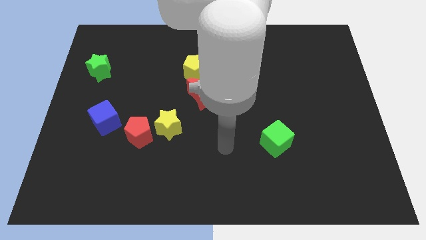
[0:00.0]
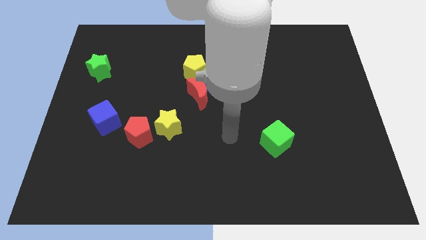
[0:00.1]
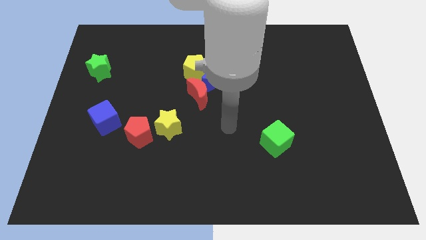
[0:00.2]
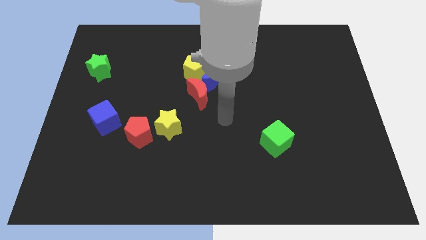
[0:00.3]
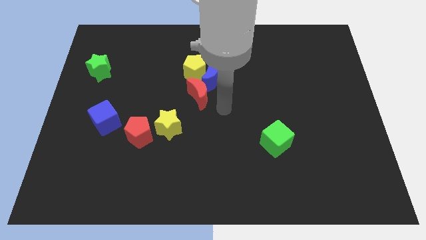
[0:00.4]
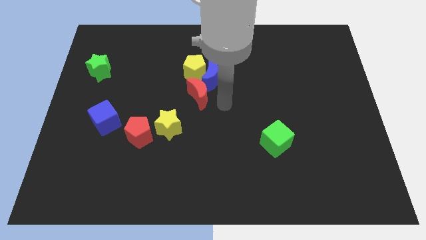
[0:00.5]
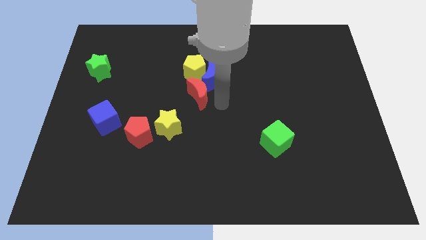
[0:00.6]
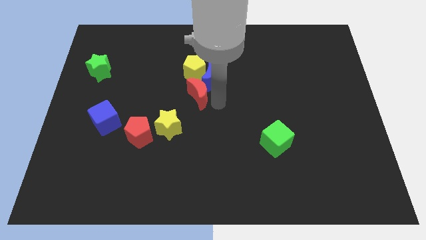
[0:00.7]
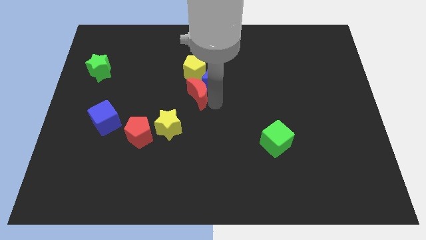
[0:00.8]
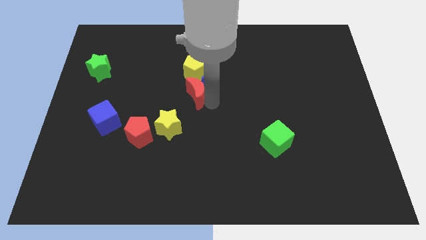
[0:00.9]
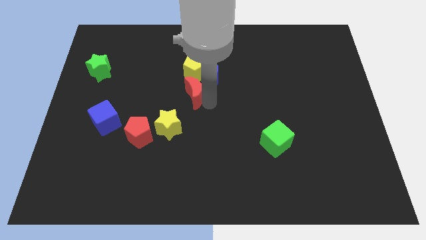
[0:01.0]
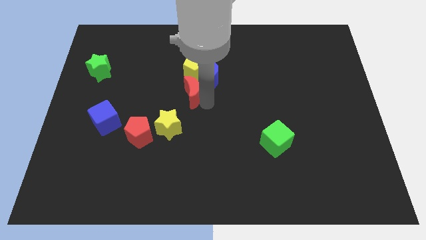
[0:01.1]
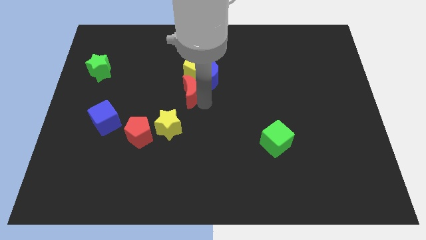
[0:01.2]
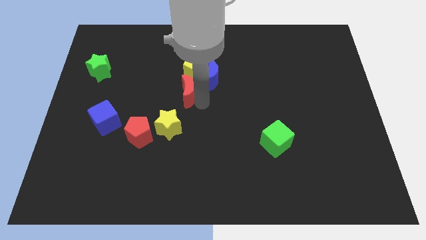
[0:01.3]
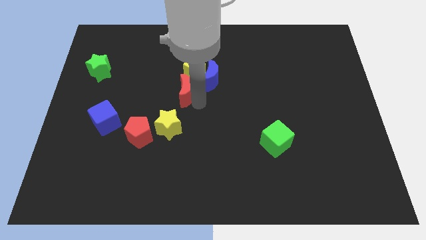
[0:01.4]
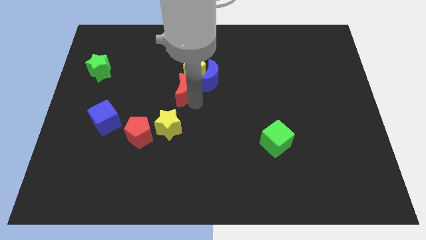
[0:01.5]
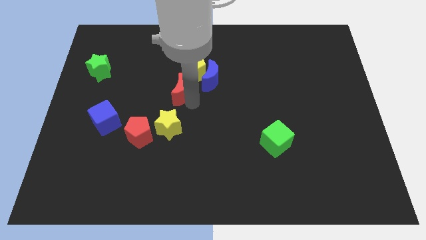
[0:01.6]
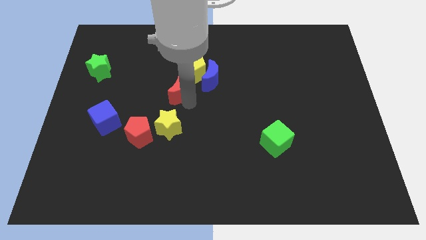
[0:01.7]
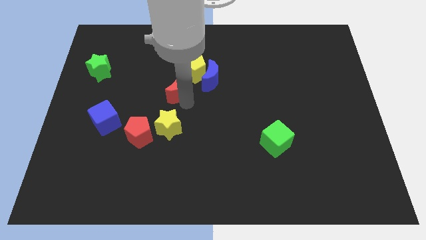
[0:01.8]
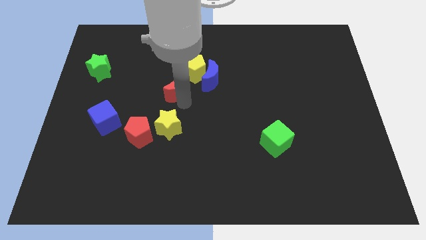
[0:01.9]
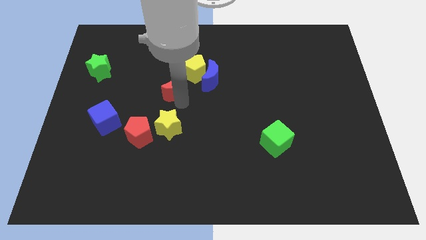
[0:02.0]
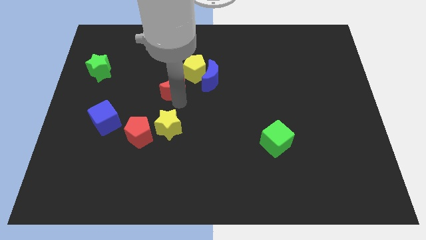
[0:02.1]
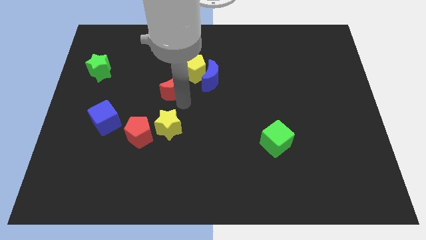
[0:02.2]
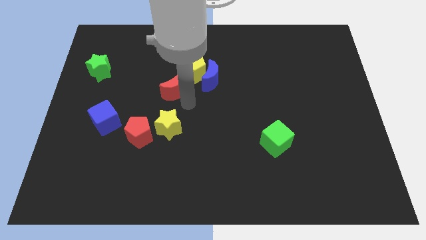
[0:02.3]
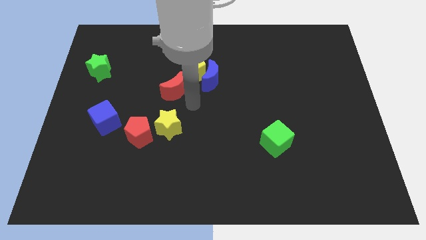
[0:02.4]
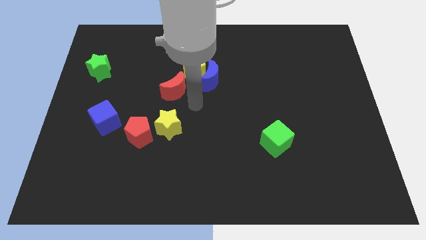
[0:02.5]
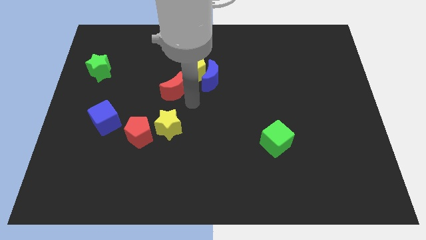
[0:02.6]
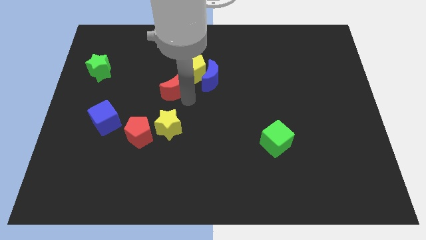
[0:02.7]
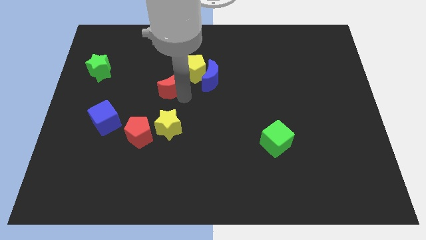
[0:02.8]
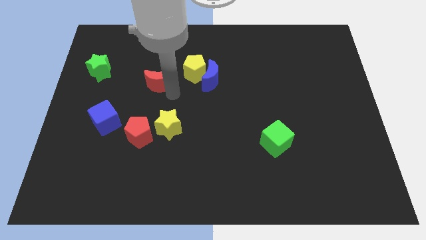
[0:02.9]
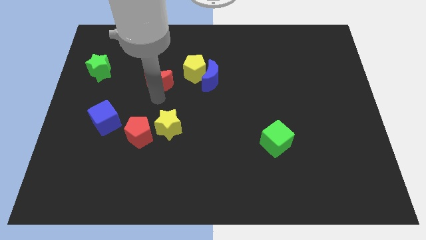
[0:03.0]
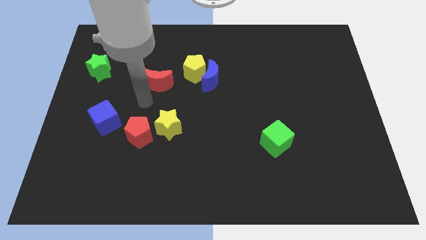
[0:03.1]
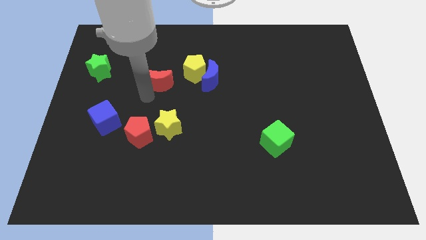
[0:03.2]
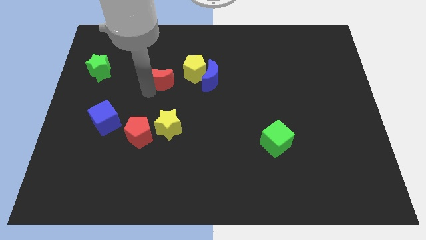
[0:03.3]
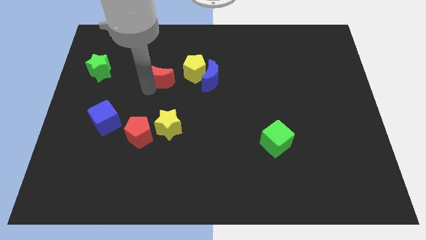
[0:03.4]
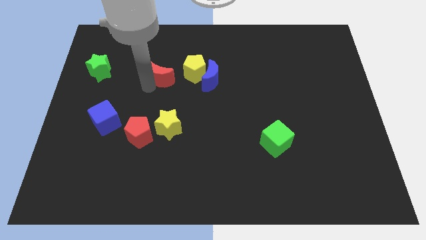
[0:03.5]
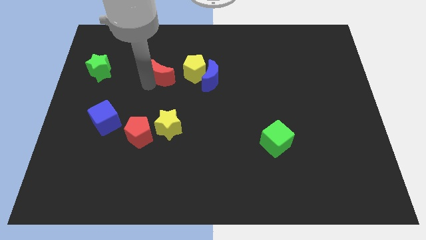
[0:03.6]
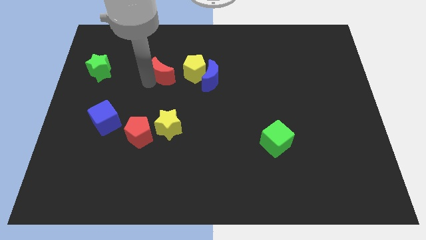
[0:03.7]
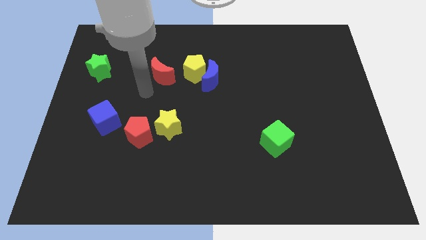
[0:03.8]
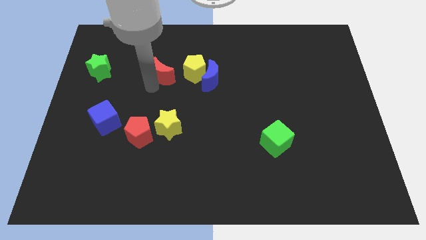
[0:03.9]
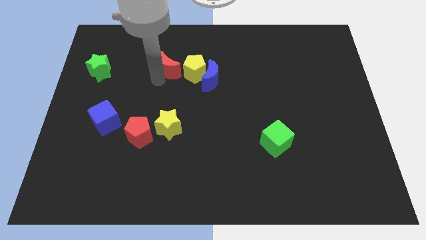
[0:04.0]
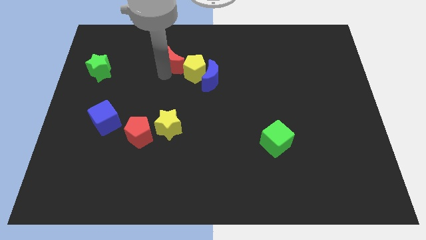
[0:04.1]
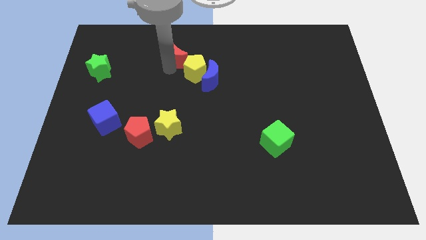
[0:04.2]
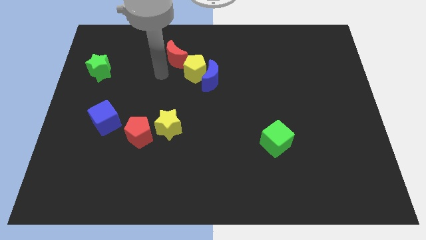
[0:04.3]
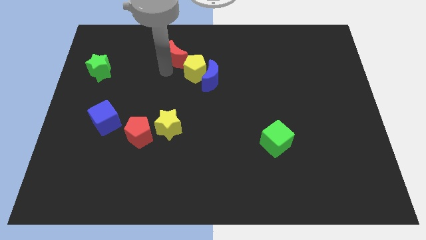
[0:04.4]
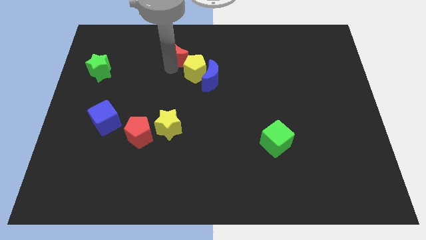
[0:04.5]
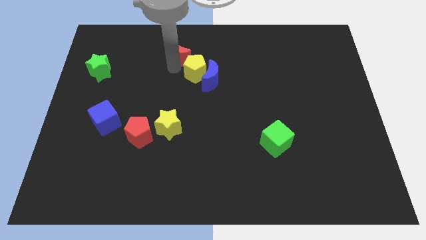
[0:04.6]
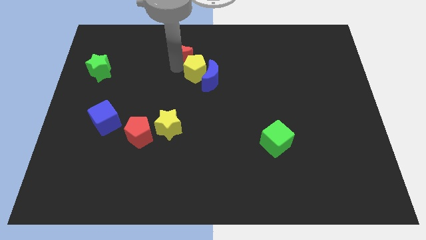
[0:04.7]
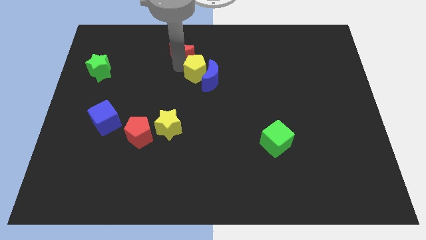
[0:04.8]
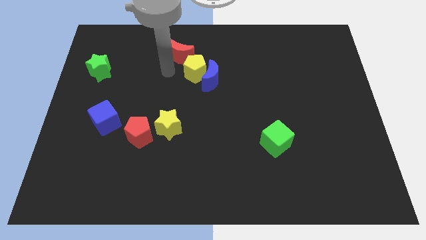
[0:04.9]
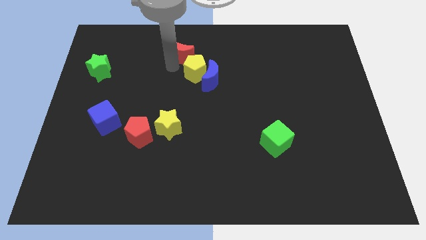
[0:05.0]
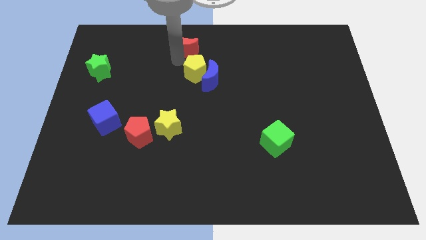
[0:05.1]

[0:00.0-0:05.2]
move the red moon to the top

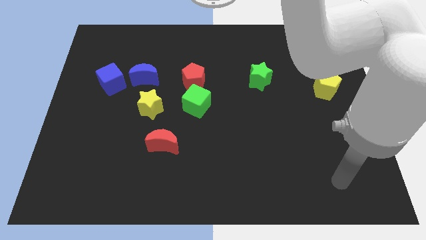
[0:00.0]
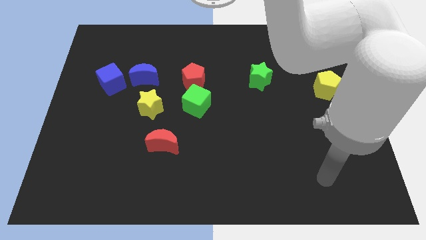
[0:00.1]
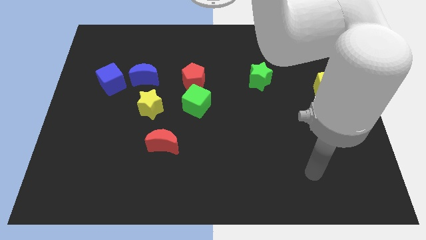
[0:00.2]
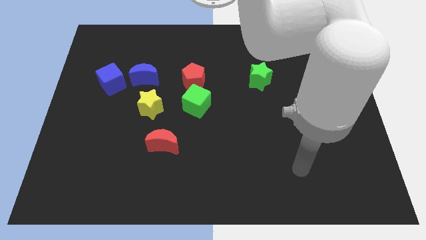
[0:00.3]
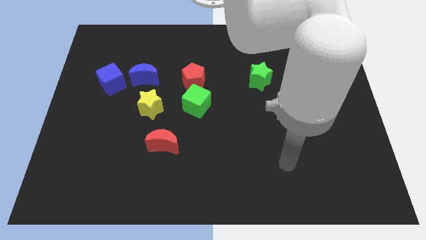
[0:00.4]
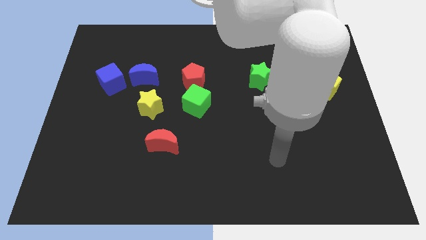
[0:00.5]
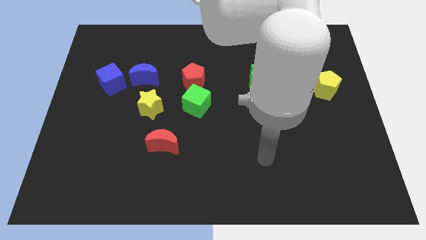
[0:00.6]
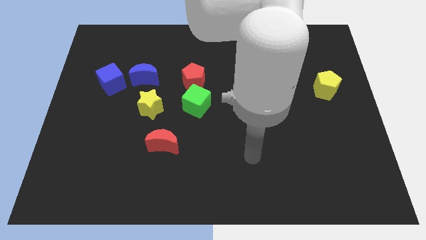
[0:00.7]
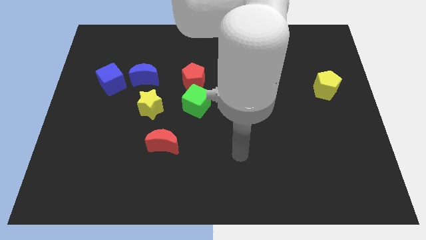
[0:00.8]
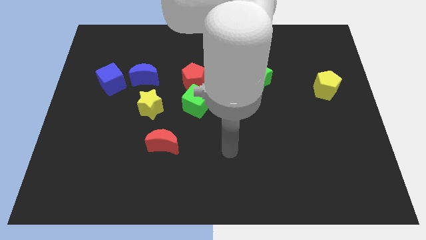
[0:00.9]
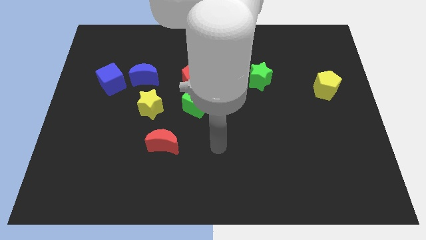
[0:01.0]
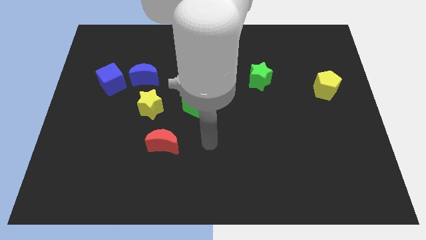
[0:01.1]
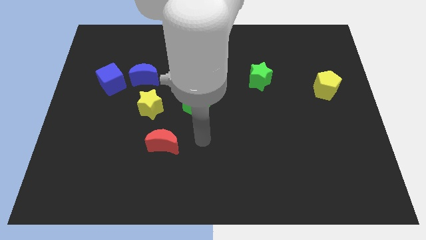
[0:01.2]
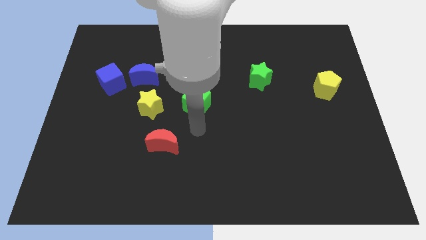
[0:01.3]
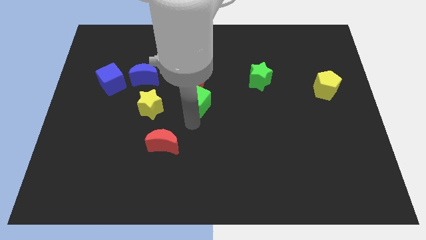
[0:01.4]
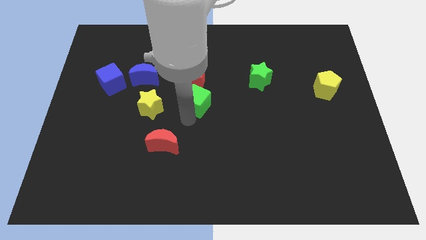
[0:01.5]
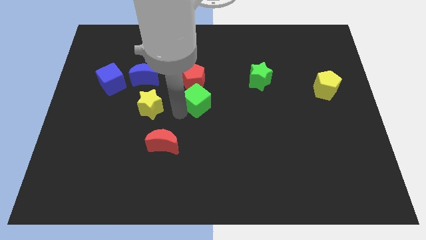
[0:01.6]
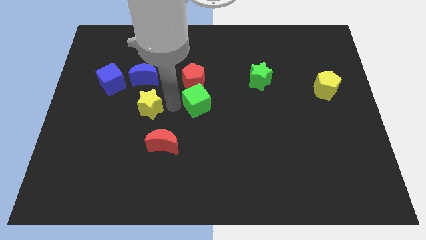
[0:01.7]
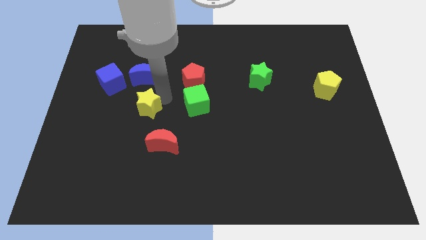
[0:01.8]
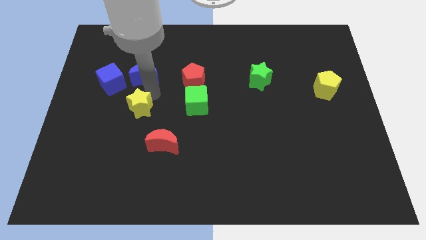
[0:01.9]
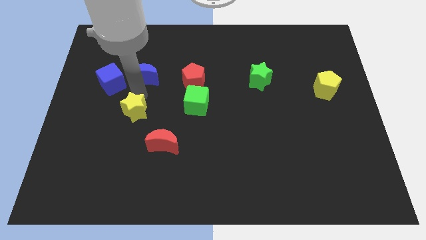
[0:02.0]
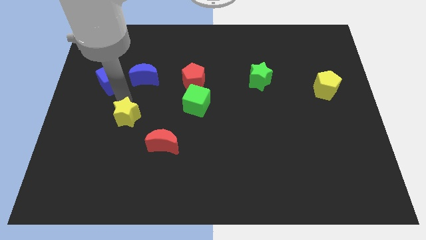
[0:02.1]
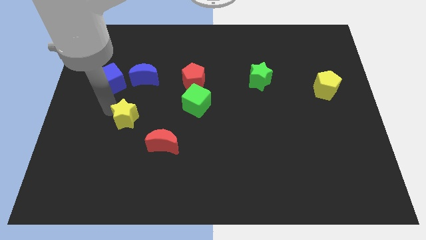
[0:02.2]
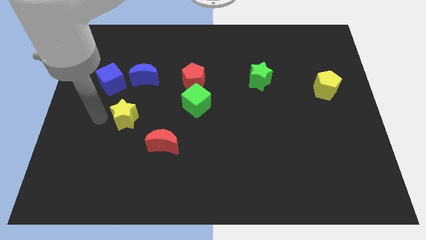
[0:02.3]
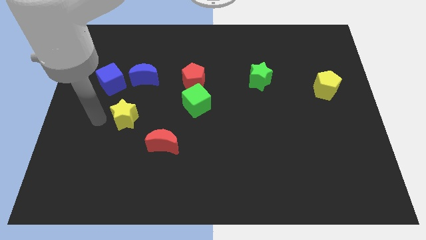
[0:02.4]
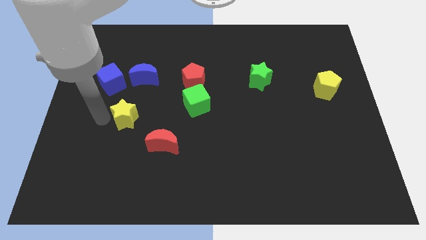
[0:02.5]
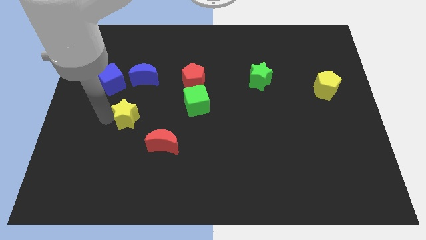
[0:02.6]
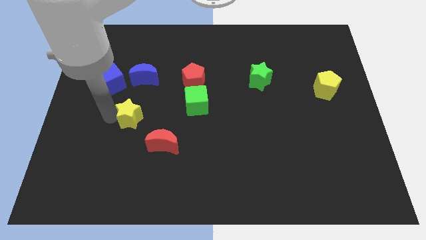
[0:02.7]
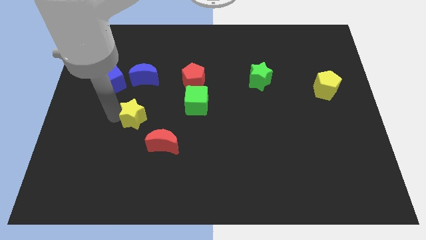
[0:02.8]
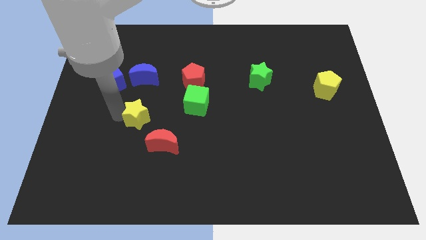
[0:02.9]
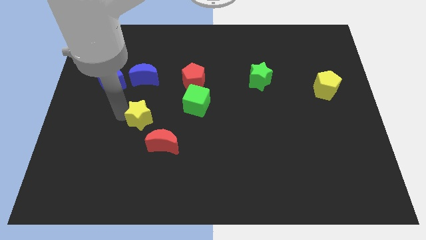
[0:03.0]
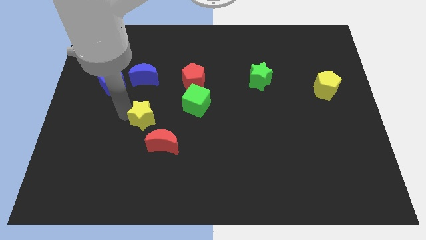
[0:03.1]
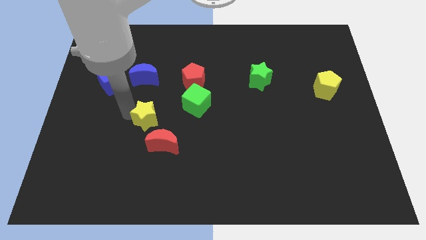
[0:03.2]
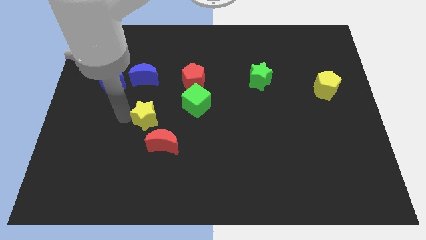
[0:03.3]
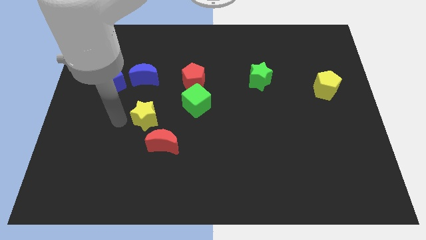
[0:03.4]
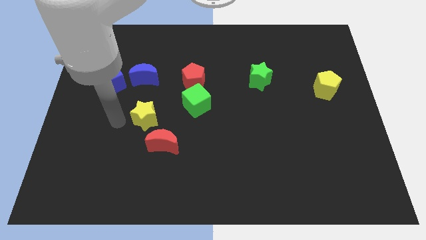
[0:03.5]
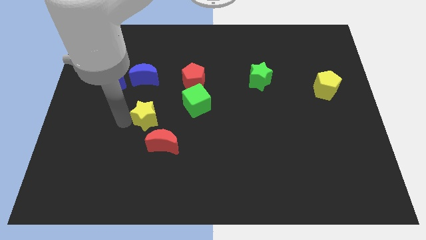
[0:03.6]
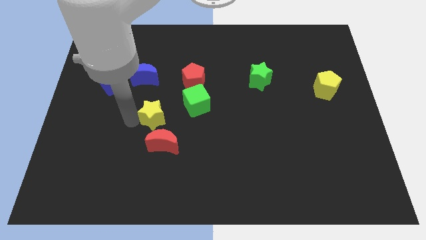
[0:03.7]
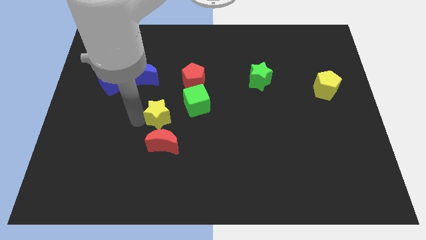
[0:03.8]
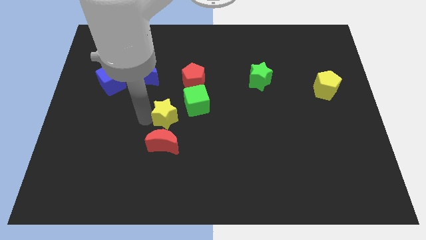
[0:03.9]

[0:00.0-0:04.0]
slide the yellow star to the middle of the board
